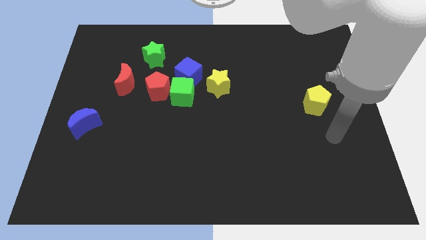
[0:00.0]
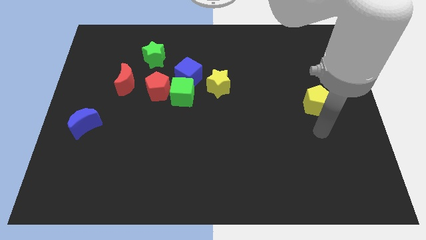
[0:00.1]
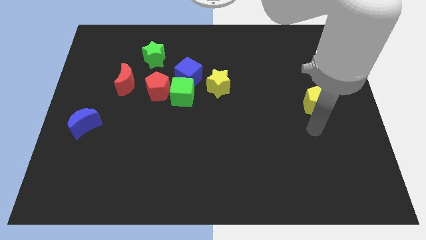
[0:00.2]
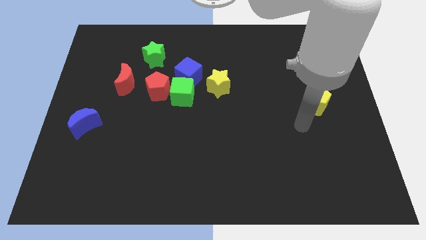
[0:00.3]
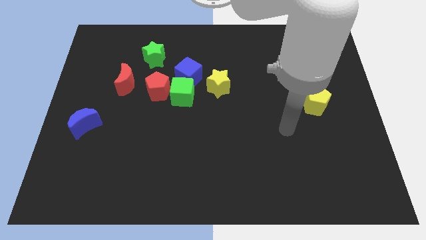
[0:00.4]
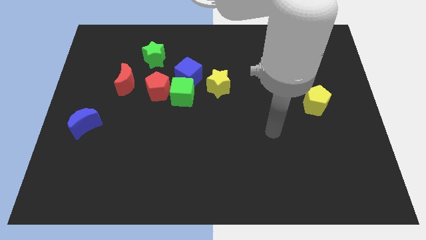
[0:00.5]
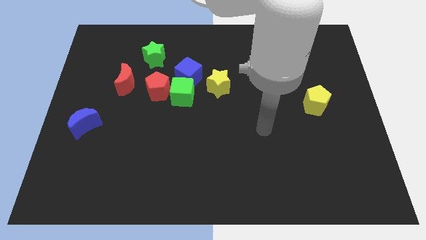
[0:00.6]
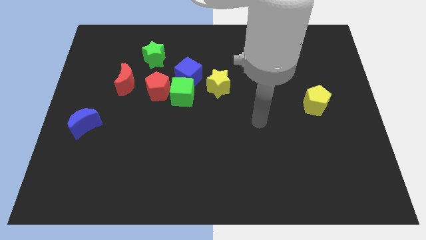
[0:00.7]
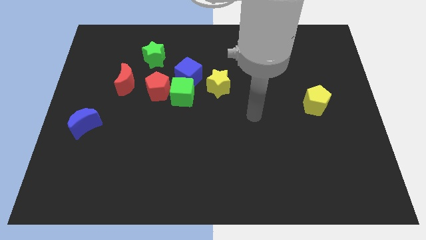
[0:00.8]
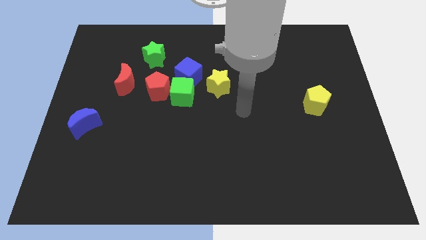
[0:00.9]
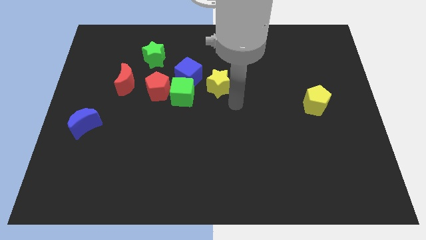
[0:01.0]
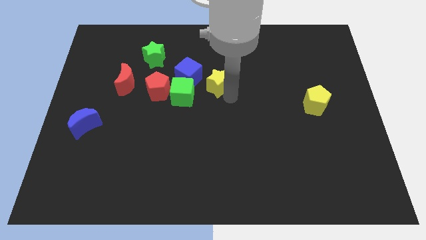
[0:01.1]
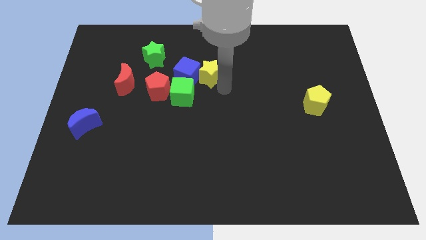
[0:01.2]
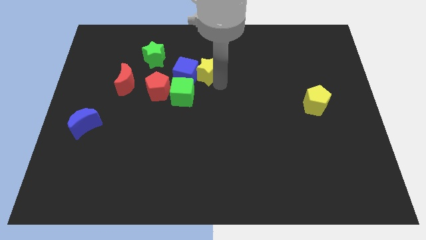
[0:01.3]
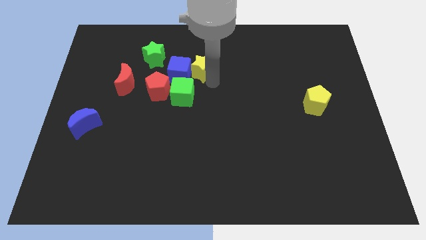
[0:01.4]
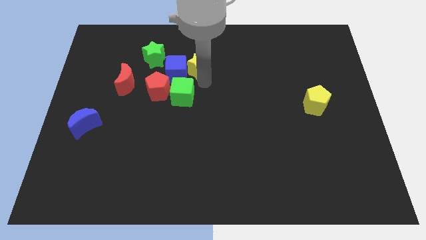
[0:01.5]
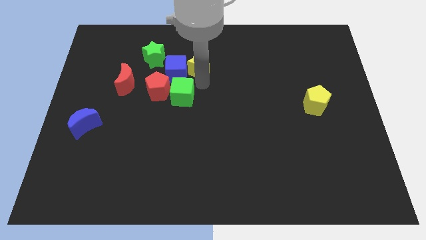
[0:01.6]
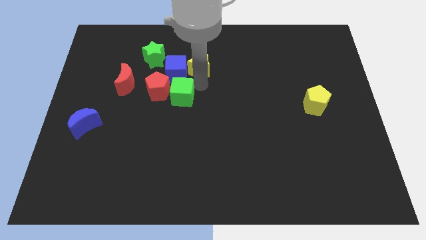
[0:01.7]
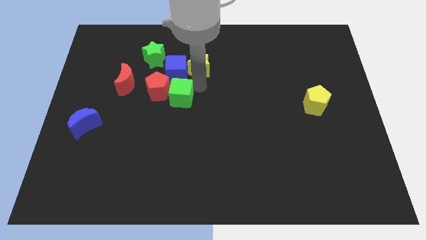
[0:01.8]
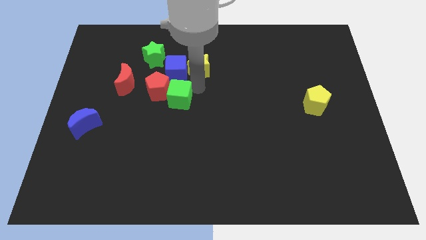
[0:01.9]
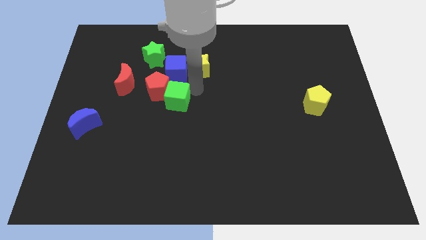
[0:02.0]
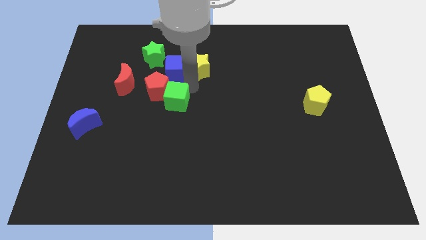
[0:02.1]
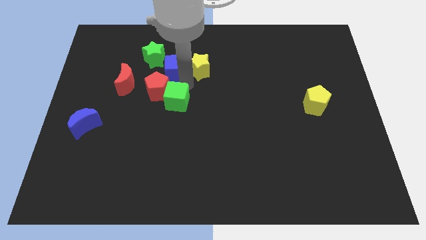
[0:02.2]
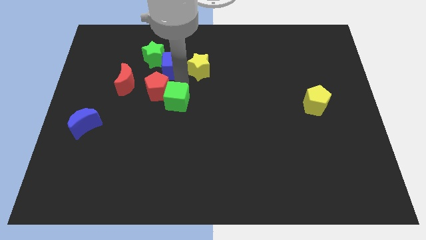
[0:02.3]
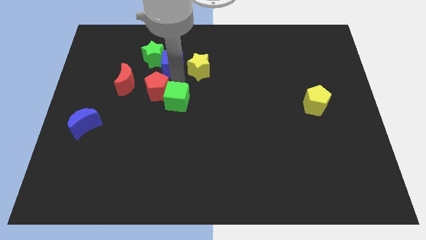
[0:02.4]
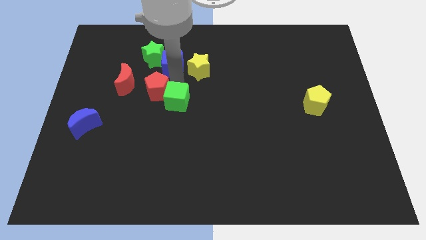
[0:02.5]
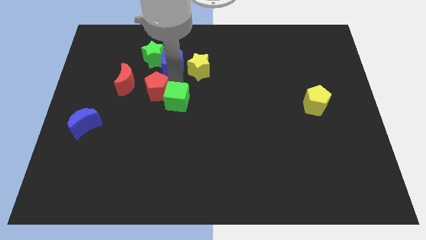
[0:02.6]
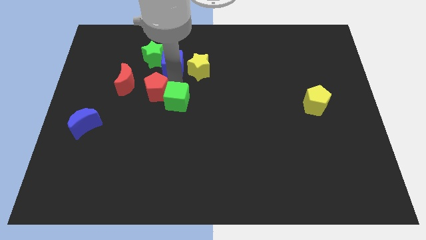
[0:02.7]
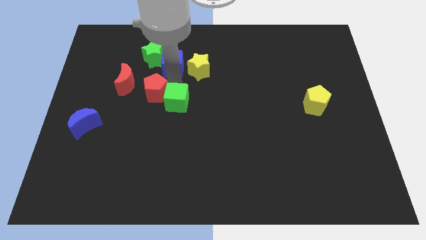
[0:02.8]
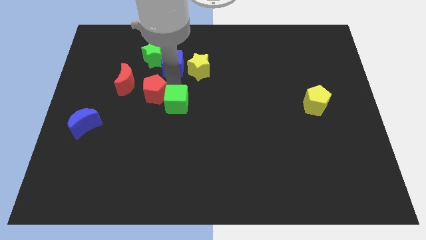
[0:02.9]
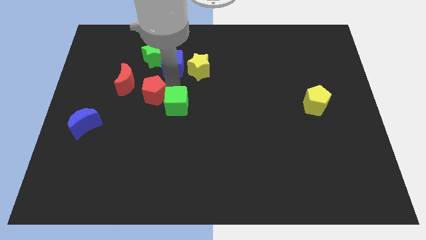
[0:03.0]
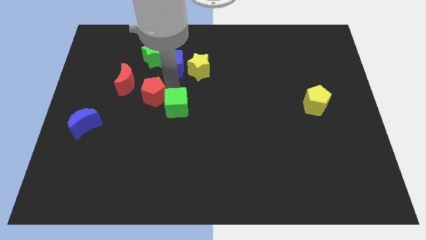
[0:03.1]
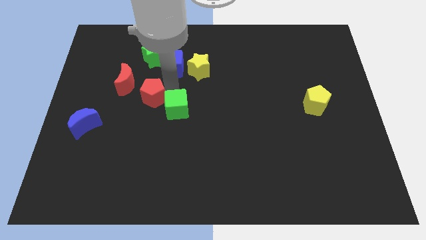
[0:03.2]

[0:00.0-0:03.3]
pull the green cube apart from the clump

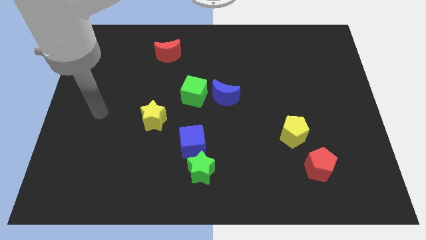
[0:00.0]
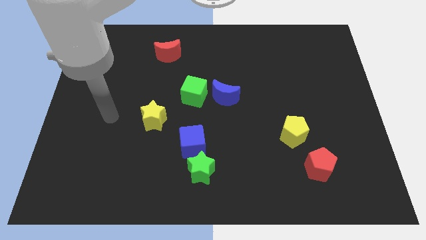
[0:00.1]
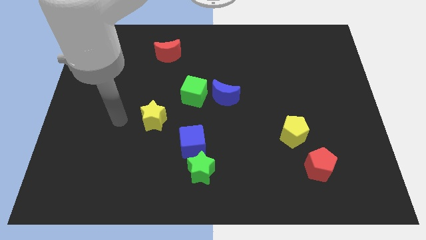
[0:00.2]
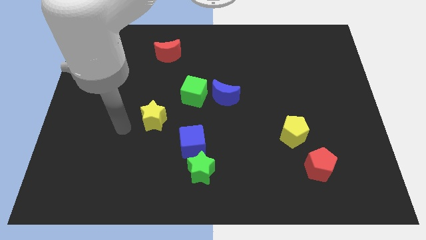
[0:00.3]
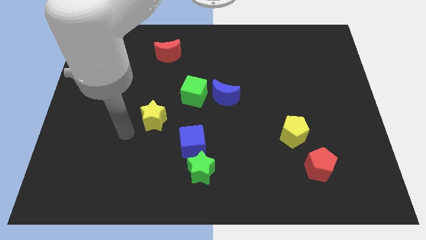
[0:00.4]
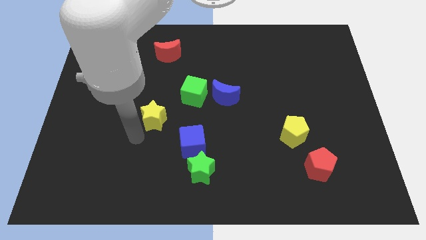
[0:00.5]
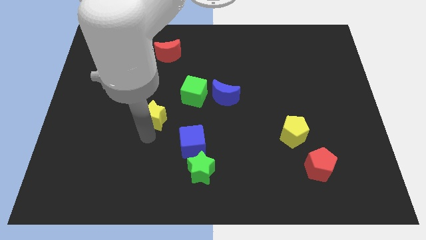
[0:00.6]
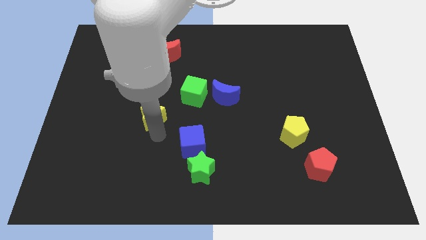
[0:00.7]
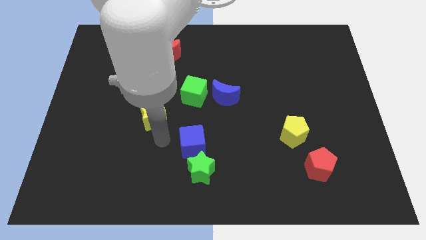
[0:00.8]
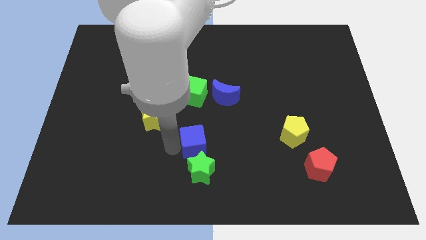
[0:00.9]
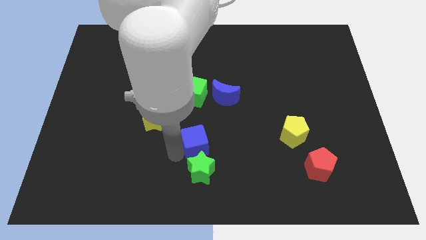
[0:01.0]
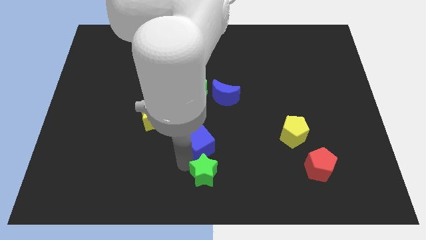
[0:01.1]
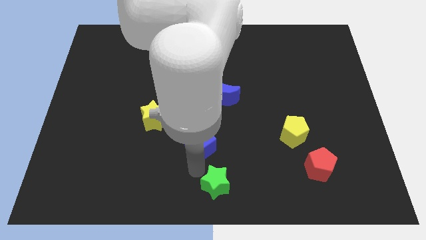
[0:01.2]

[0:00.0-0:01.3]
move the blue cube away from the green star

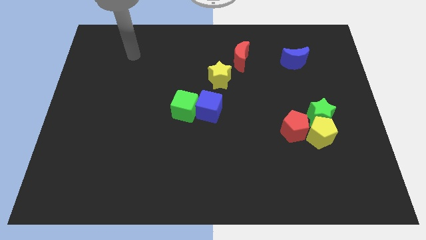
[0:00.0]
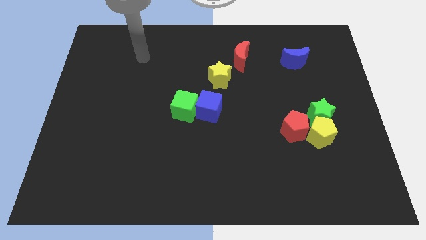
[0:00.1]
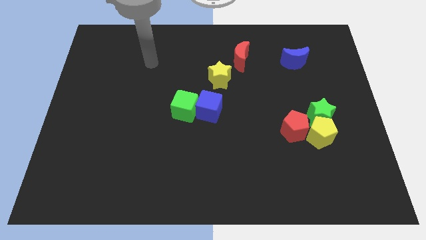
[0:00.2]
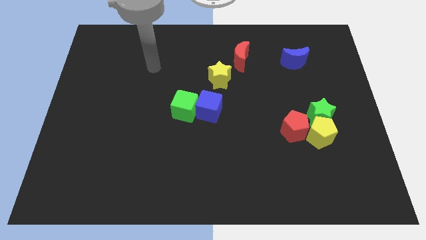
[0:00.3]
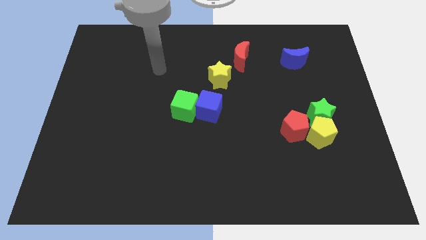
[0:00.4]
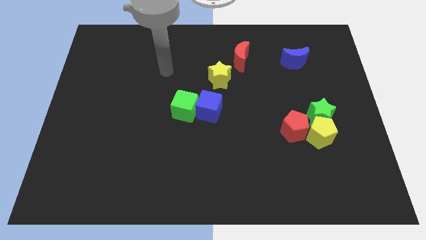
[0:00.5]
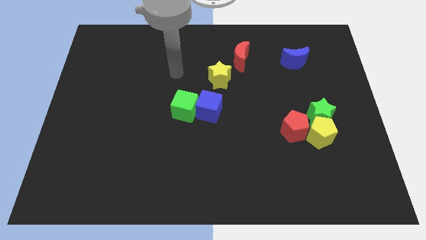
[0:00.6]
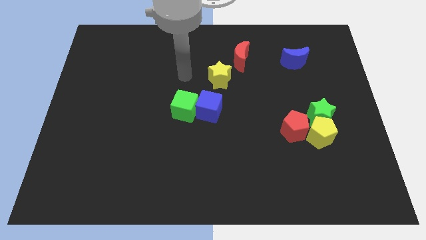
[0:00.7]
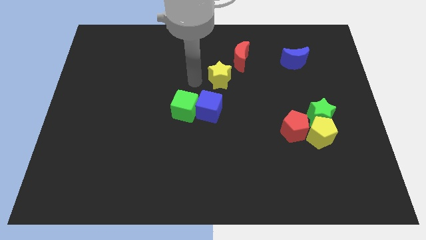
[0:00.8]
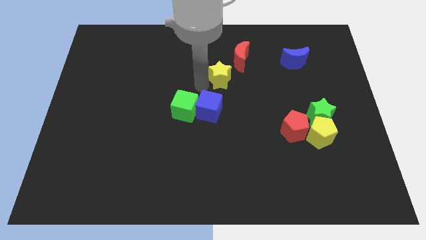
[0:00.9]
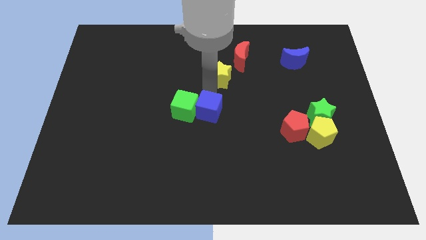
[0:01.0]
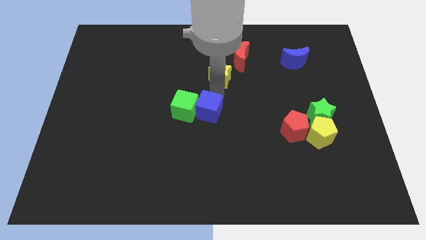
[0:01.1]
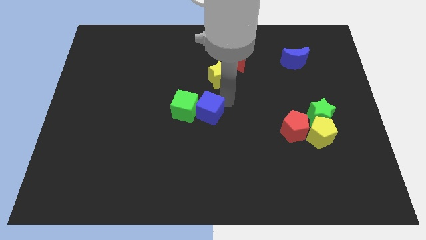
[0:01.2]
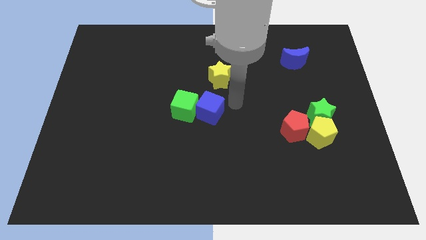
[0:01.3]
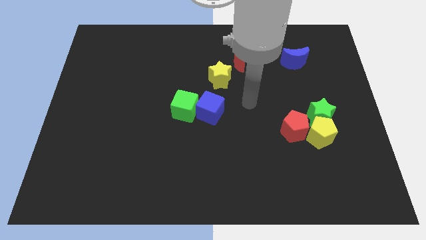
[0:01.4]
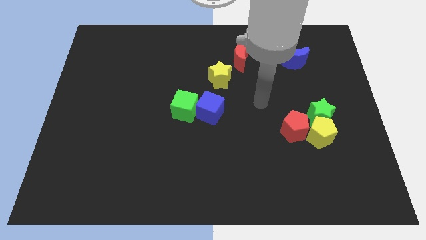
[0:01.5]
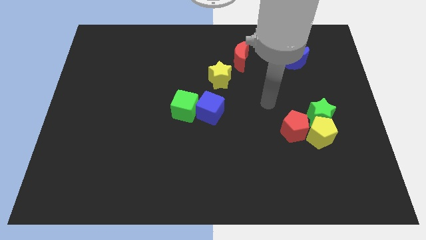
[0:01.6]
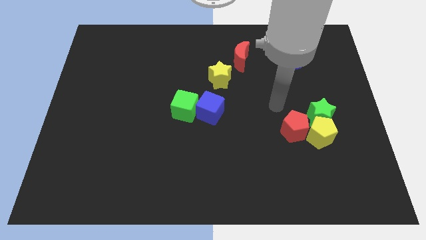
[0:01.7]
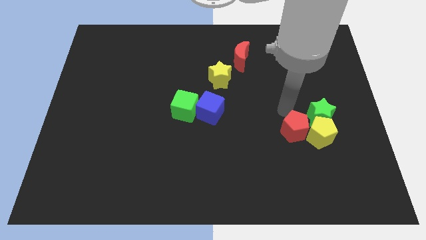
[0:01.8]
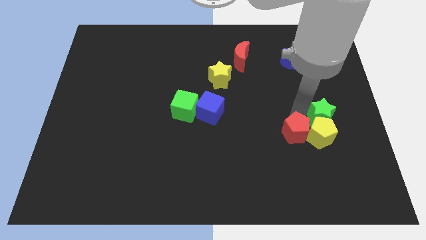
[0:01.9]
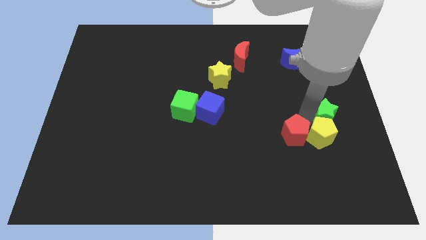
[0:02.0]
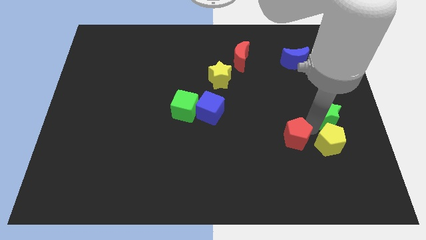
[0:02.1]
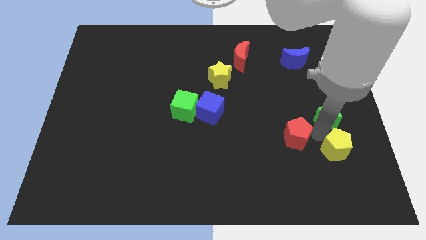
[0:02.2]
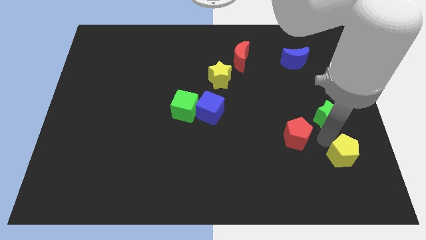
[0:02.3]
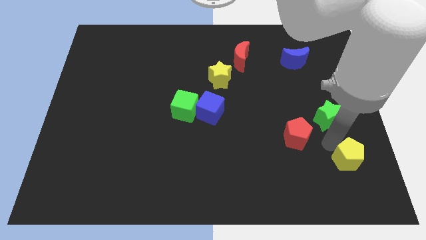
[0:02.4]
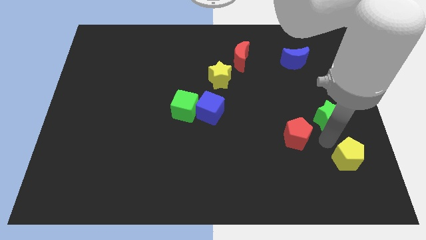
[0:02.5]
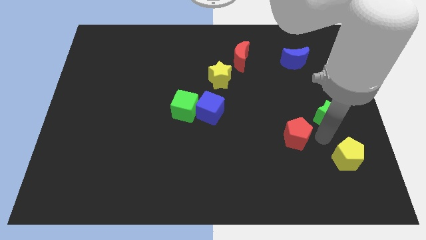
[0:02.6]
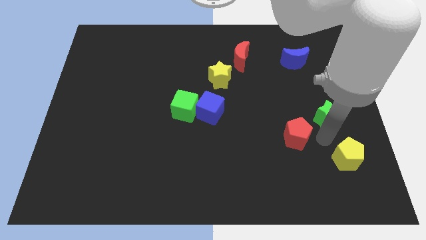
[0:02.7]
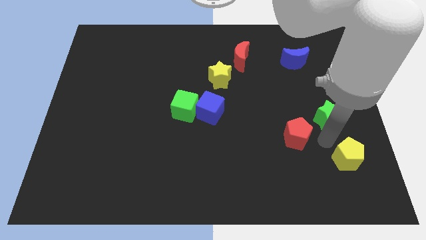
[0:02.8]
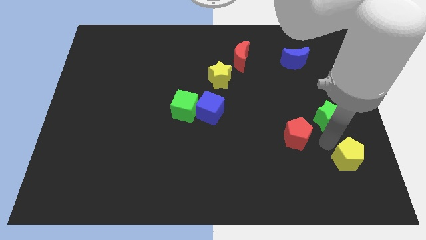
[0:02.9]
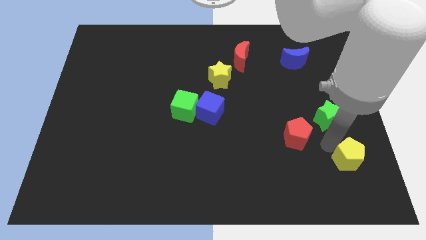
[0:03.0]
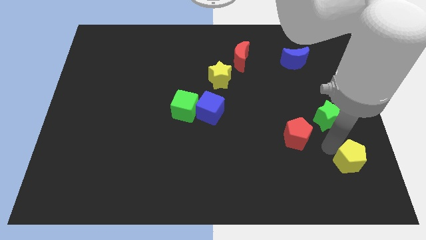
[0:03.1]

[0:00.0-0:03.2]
move the yellow pentagon away from the green star and red pentagon

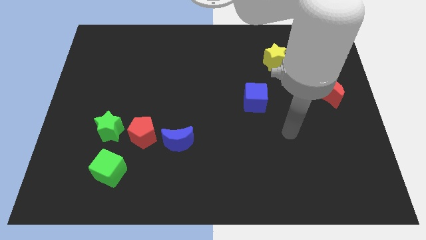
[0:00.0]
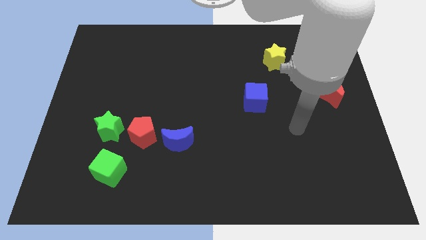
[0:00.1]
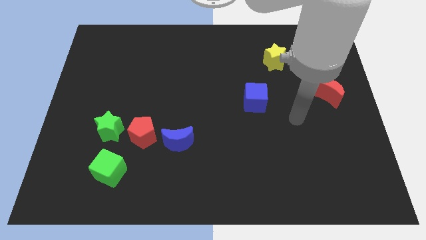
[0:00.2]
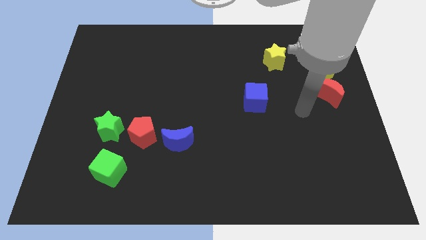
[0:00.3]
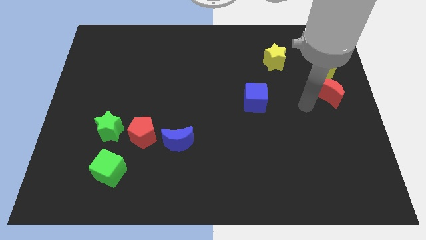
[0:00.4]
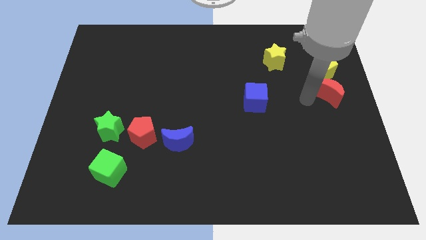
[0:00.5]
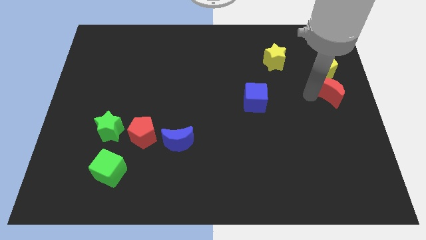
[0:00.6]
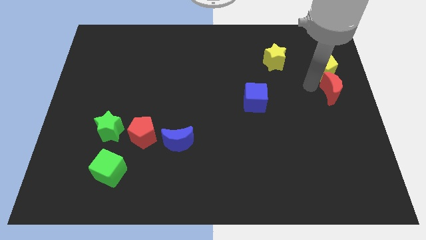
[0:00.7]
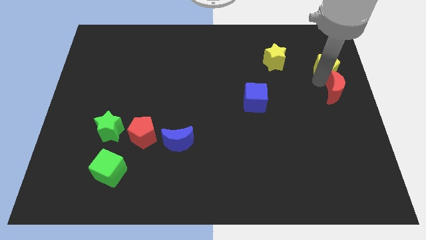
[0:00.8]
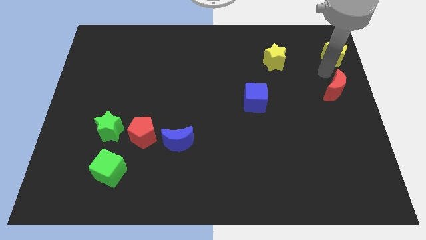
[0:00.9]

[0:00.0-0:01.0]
move the red moon away from the yellow pentagon

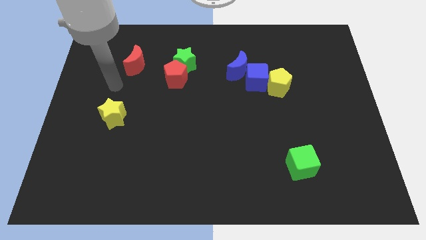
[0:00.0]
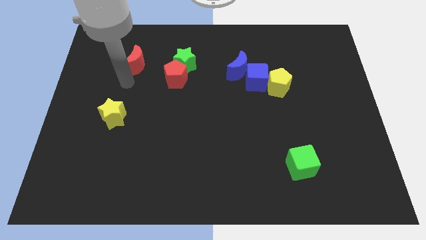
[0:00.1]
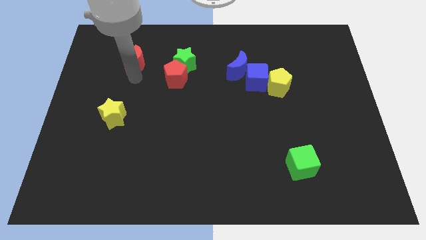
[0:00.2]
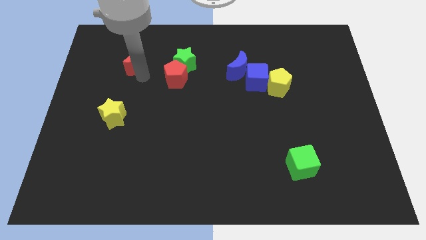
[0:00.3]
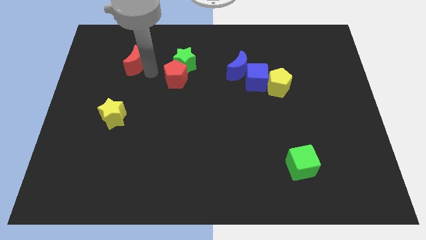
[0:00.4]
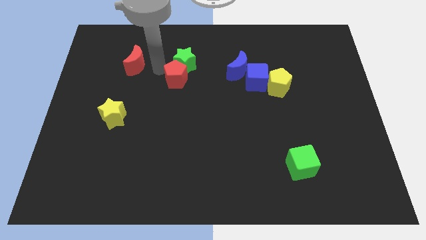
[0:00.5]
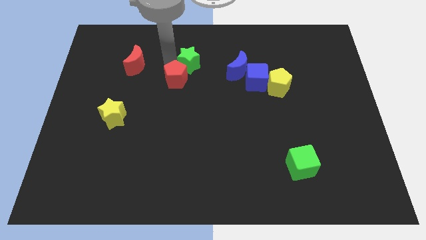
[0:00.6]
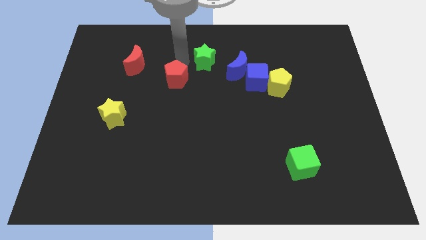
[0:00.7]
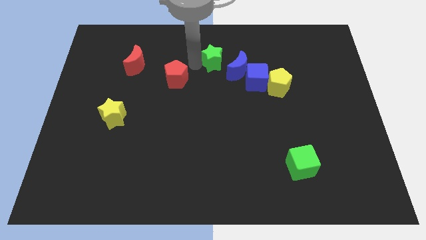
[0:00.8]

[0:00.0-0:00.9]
move the red pentagon away from the green star
